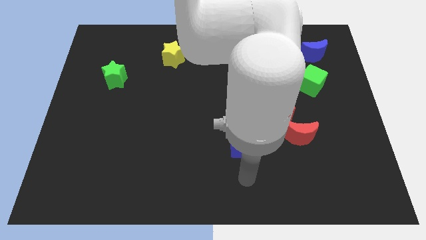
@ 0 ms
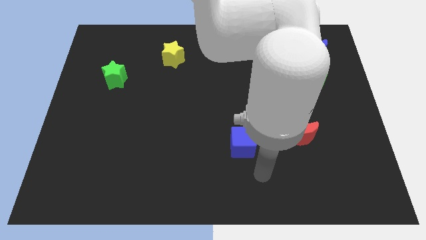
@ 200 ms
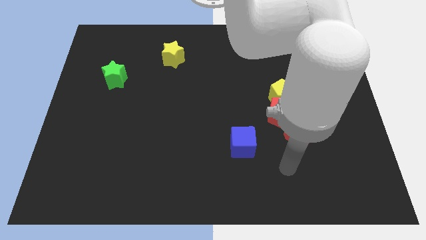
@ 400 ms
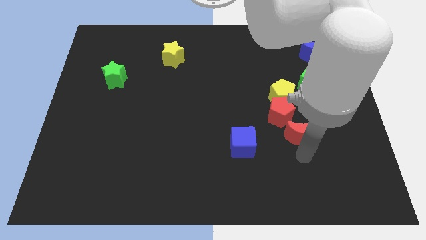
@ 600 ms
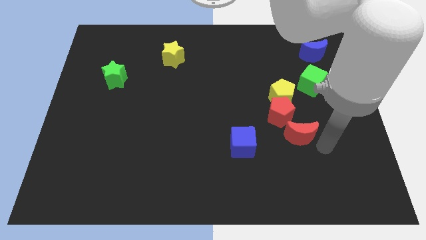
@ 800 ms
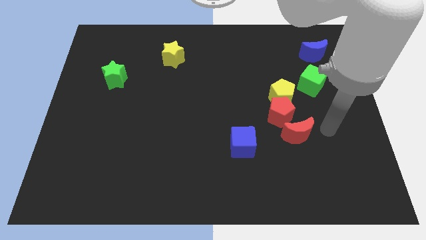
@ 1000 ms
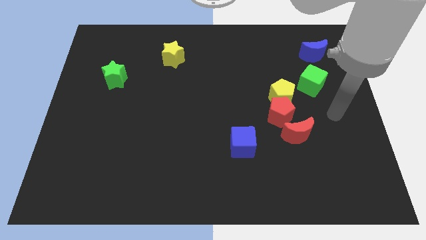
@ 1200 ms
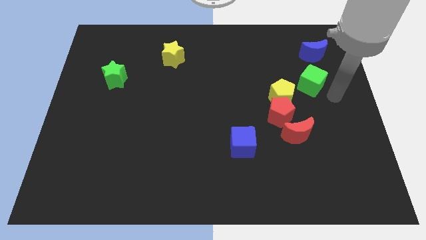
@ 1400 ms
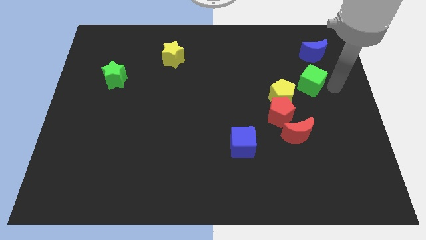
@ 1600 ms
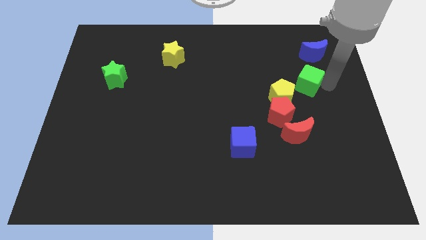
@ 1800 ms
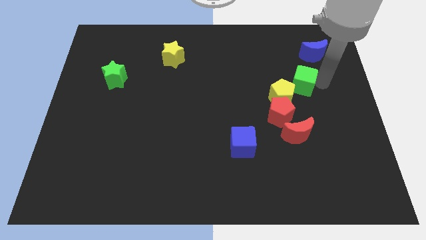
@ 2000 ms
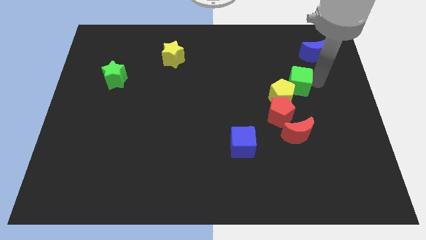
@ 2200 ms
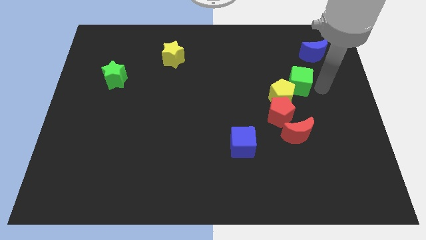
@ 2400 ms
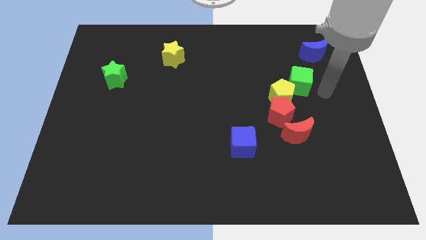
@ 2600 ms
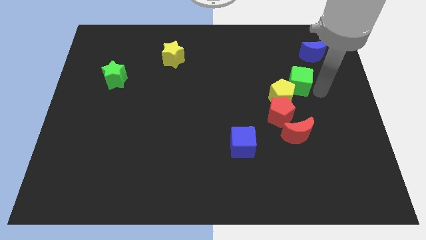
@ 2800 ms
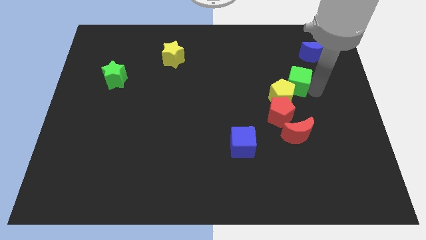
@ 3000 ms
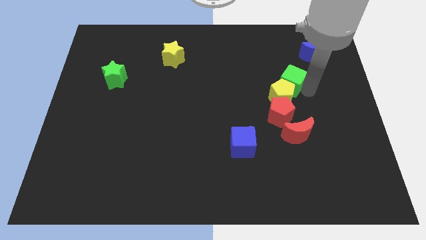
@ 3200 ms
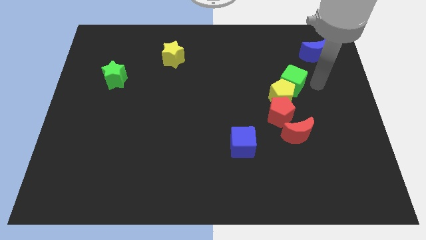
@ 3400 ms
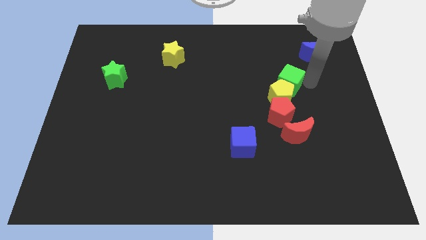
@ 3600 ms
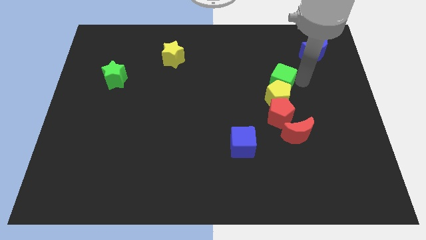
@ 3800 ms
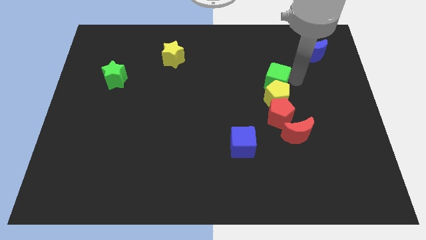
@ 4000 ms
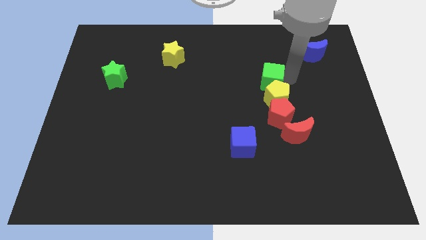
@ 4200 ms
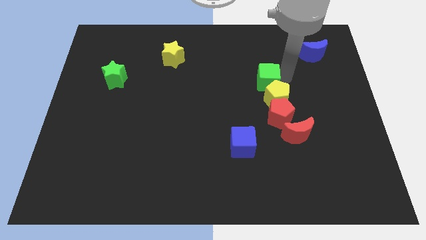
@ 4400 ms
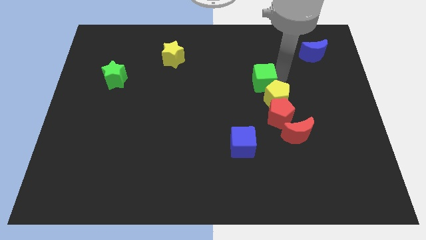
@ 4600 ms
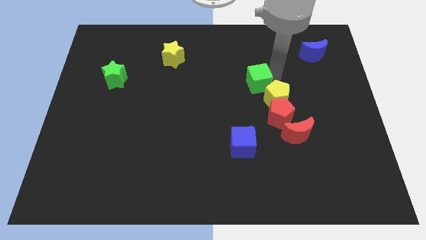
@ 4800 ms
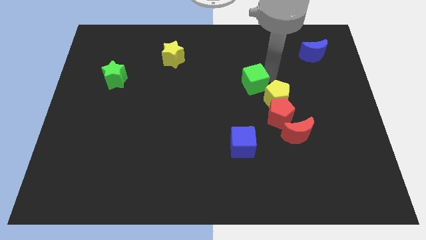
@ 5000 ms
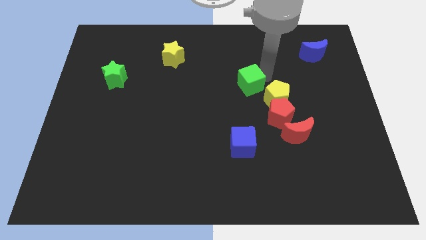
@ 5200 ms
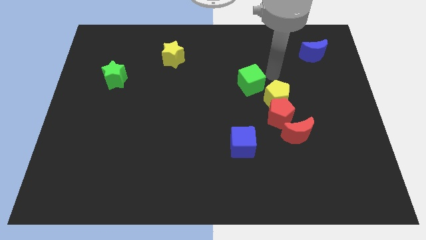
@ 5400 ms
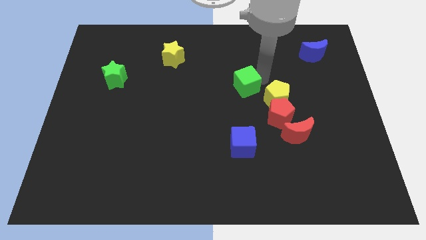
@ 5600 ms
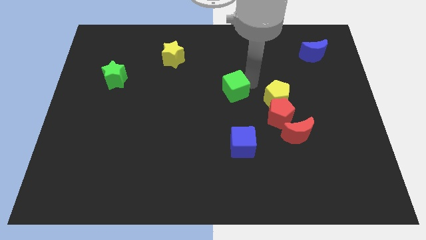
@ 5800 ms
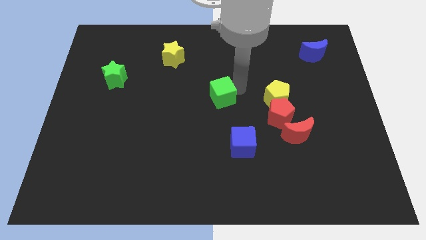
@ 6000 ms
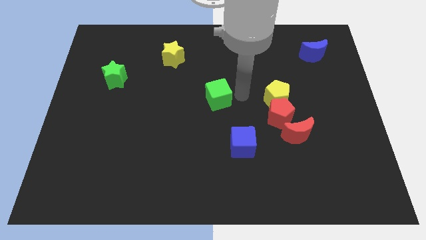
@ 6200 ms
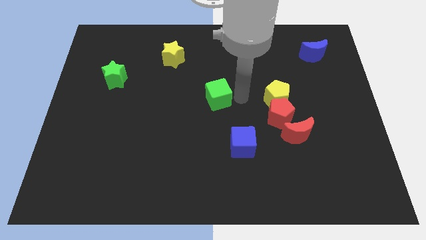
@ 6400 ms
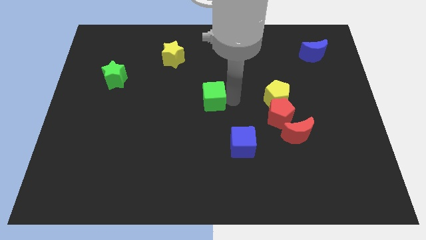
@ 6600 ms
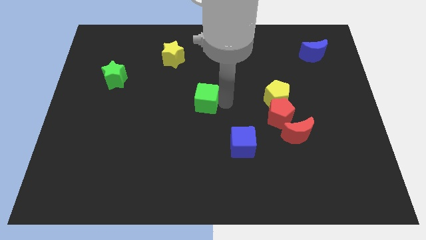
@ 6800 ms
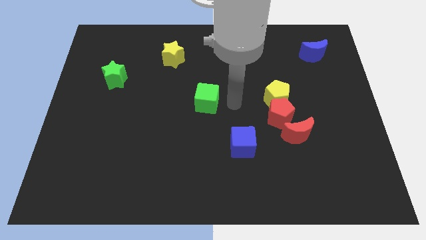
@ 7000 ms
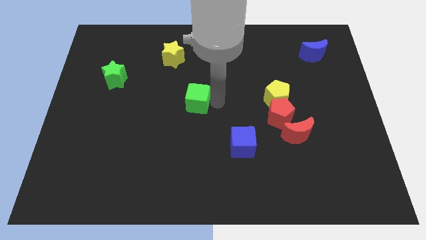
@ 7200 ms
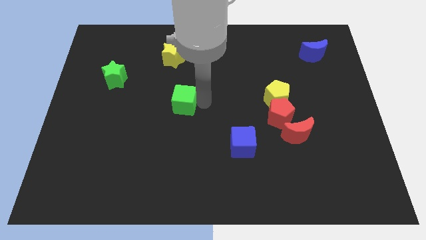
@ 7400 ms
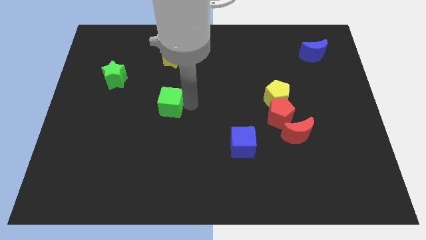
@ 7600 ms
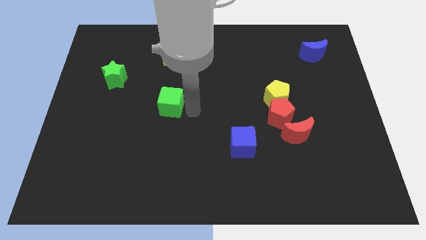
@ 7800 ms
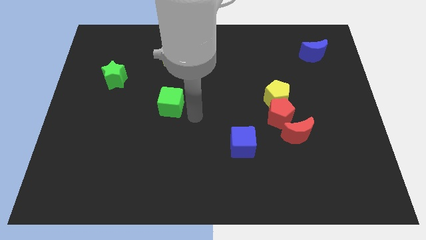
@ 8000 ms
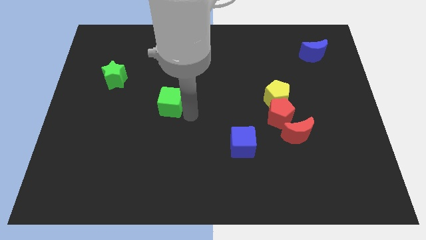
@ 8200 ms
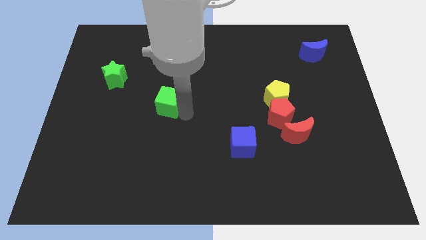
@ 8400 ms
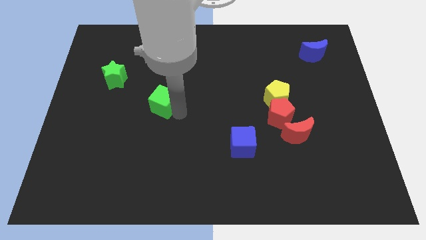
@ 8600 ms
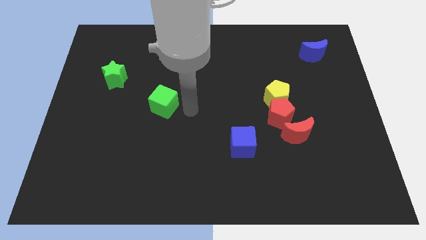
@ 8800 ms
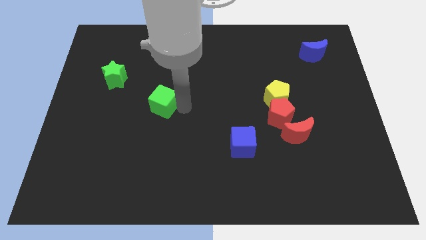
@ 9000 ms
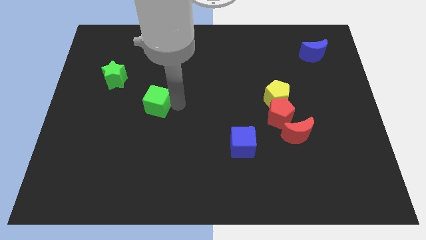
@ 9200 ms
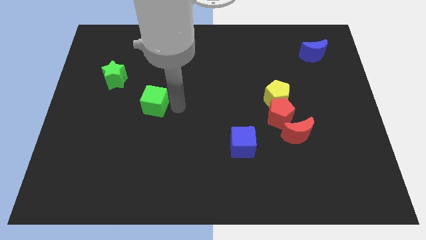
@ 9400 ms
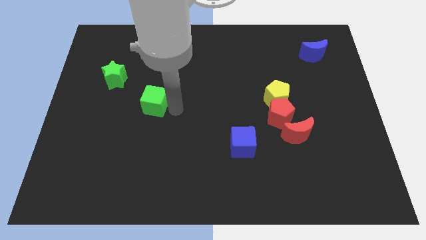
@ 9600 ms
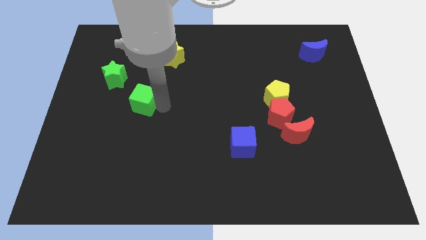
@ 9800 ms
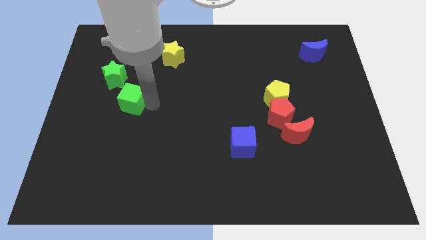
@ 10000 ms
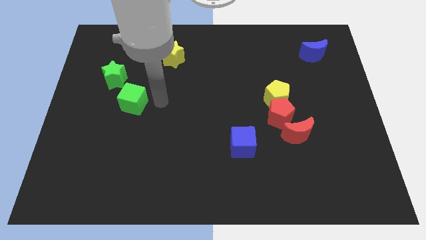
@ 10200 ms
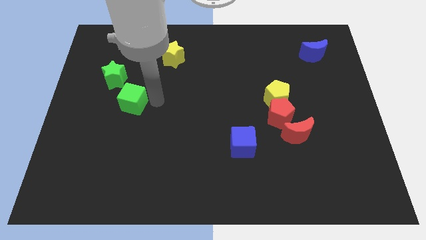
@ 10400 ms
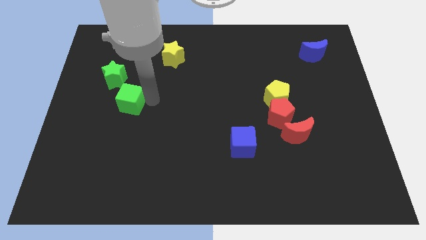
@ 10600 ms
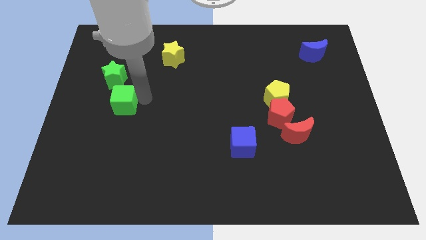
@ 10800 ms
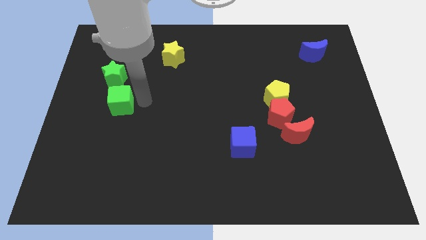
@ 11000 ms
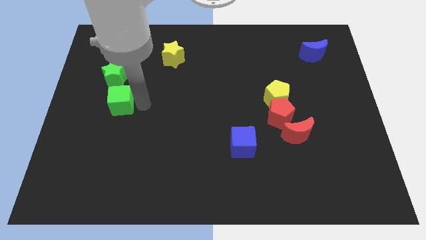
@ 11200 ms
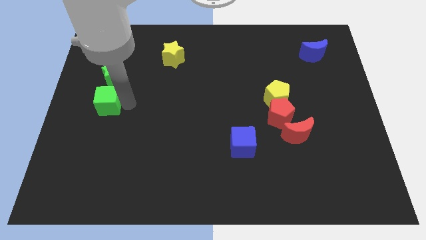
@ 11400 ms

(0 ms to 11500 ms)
move the green cube to the left side
